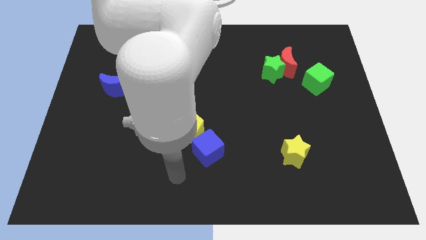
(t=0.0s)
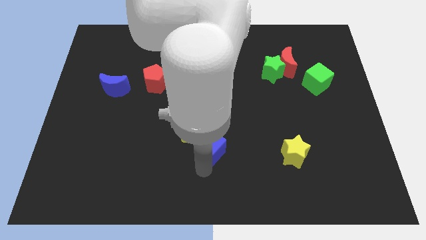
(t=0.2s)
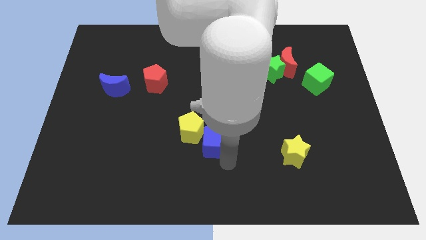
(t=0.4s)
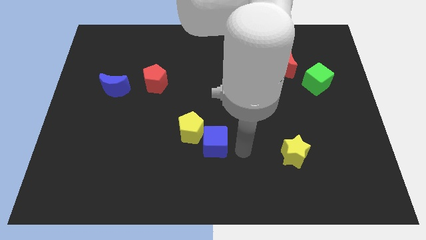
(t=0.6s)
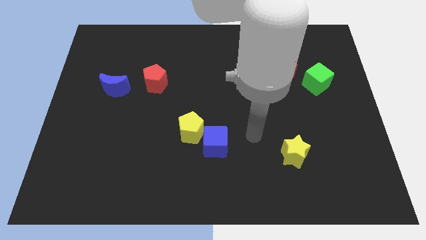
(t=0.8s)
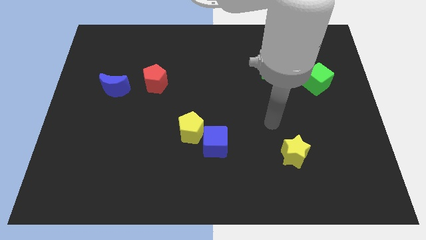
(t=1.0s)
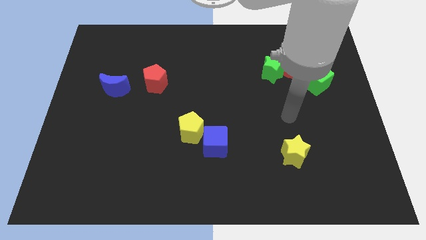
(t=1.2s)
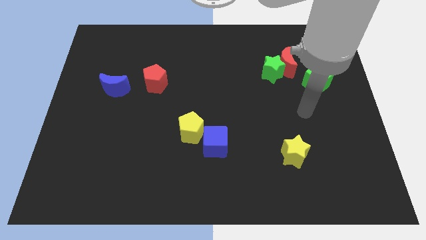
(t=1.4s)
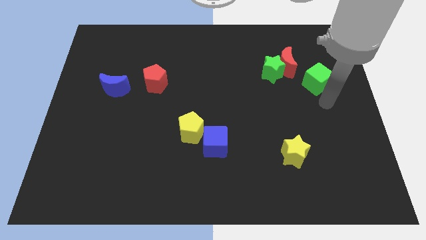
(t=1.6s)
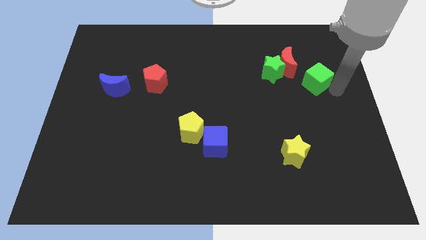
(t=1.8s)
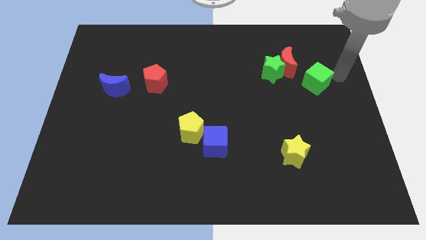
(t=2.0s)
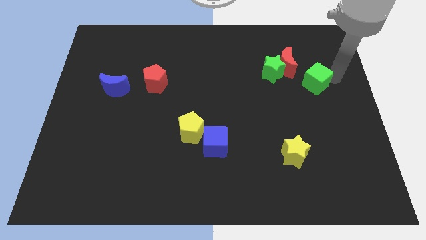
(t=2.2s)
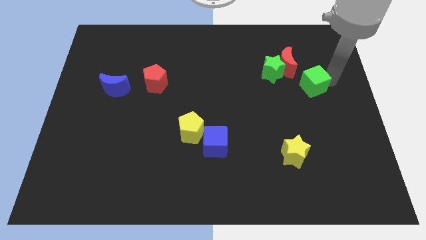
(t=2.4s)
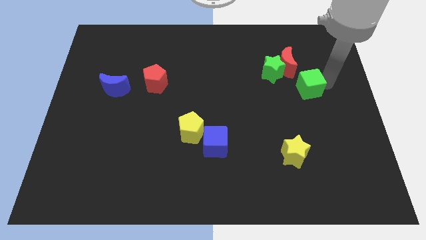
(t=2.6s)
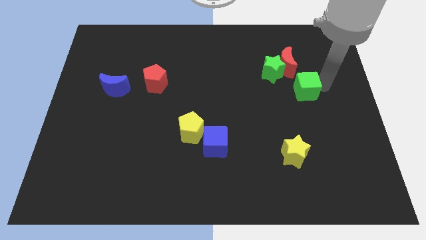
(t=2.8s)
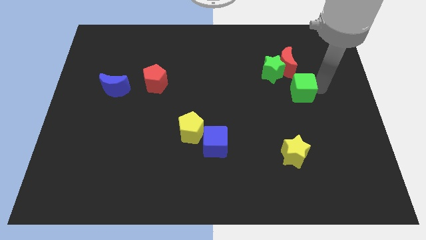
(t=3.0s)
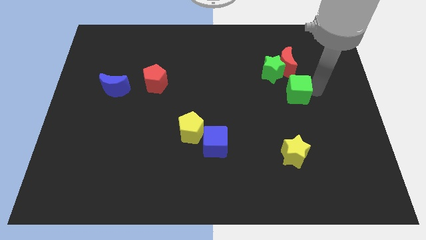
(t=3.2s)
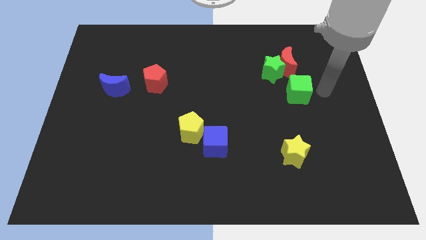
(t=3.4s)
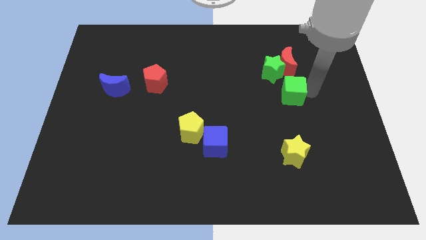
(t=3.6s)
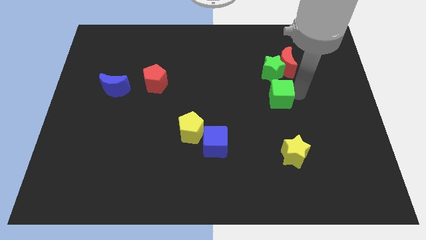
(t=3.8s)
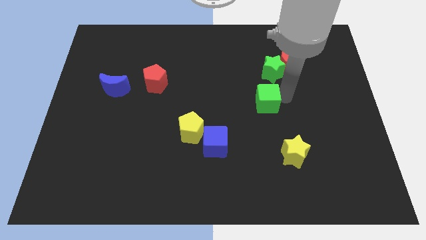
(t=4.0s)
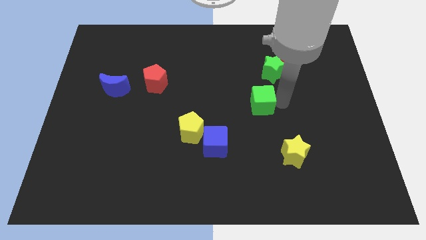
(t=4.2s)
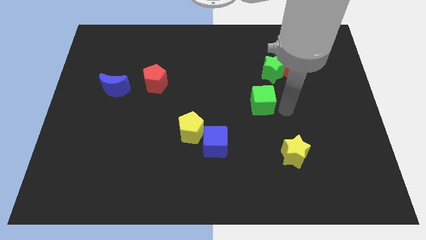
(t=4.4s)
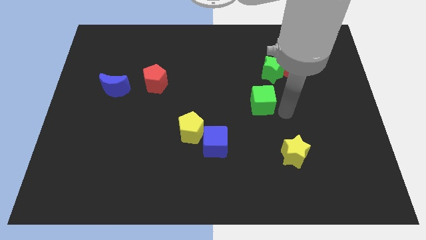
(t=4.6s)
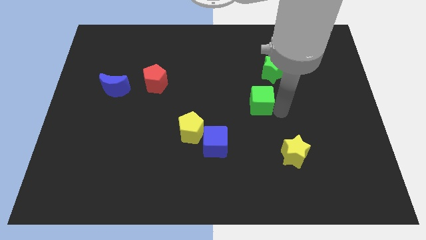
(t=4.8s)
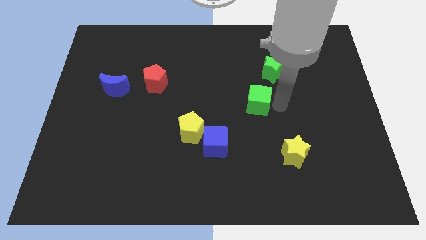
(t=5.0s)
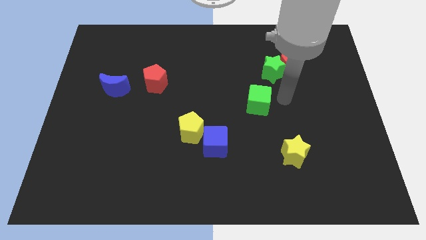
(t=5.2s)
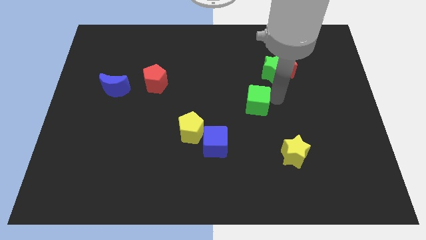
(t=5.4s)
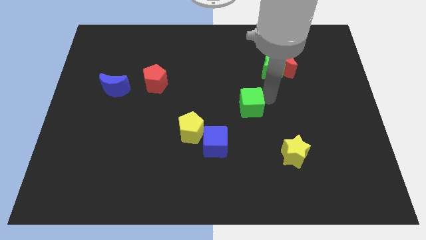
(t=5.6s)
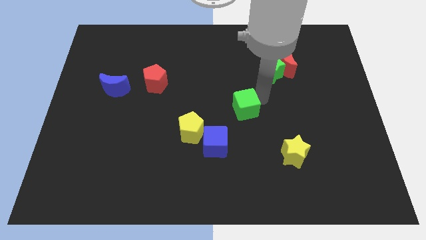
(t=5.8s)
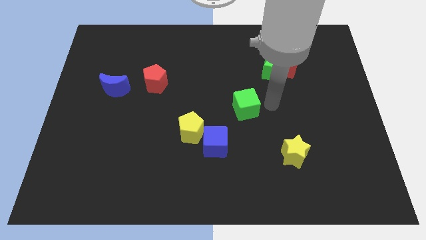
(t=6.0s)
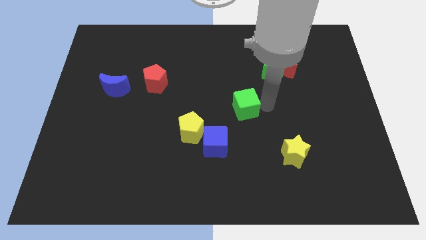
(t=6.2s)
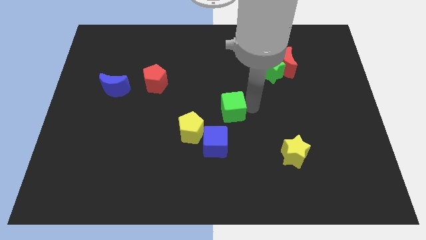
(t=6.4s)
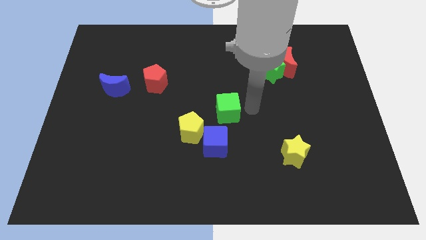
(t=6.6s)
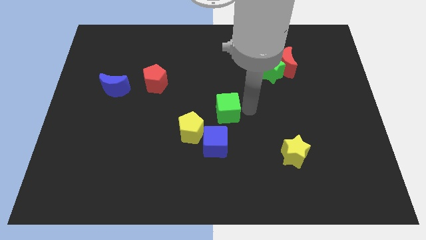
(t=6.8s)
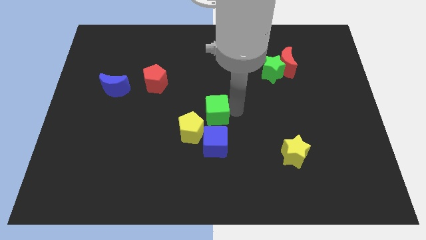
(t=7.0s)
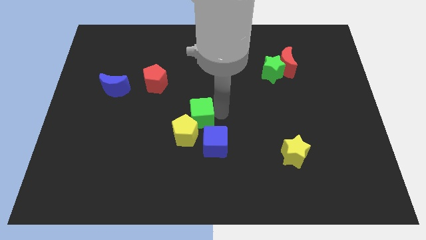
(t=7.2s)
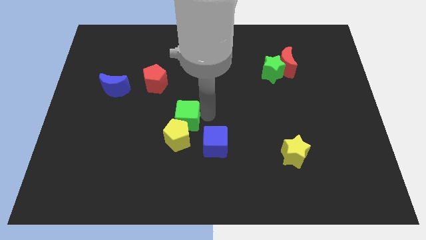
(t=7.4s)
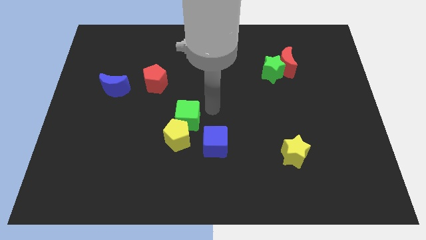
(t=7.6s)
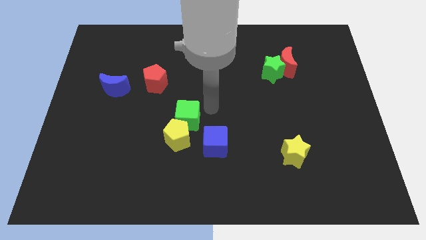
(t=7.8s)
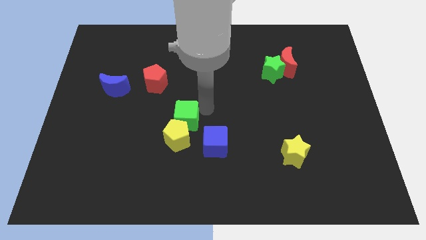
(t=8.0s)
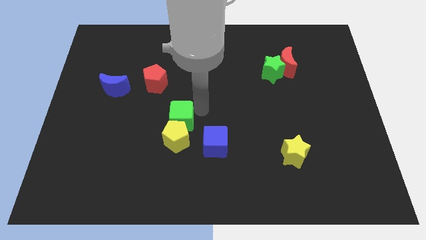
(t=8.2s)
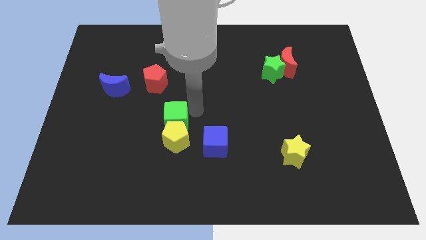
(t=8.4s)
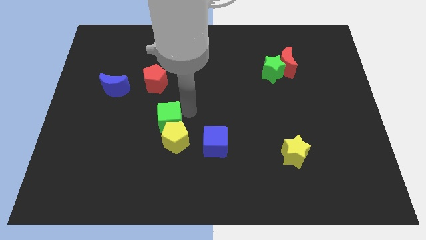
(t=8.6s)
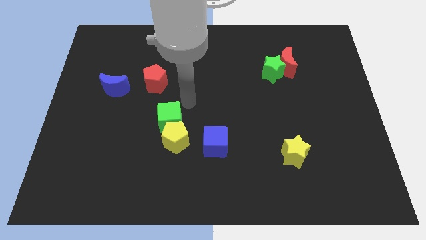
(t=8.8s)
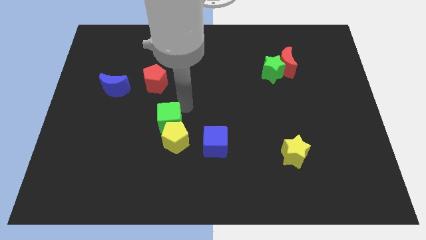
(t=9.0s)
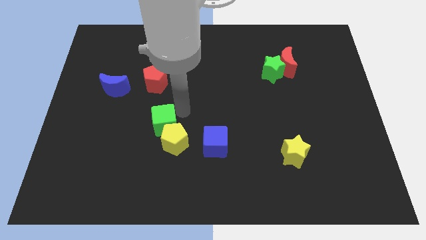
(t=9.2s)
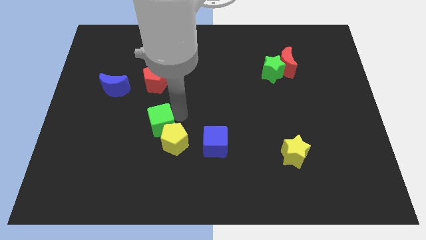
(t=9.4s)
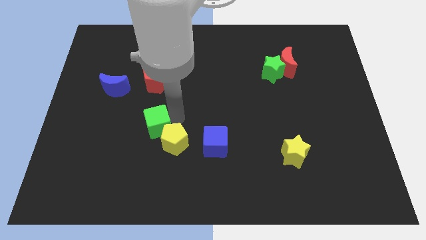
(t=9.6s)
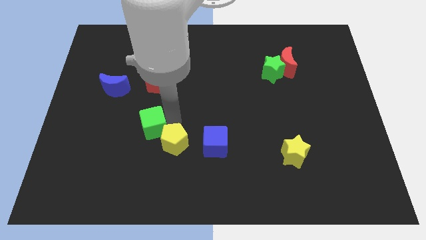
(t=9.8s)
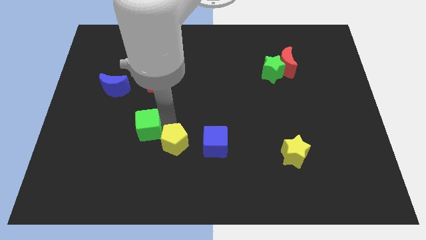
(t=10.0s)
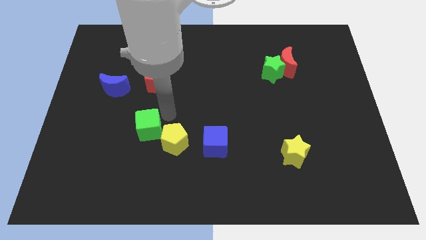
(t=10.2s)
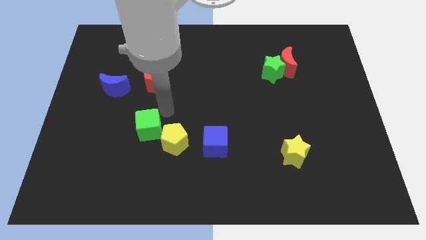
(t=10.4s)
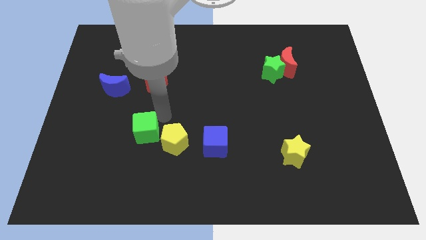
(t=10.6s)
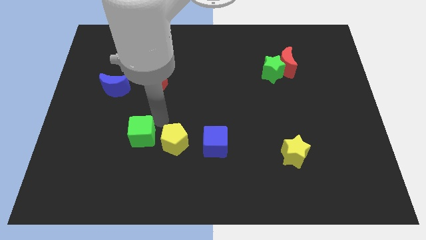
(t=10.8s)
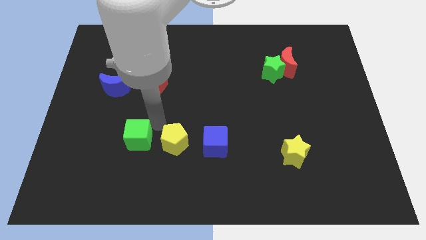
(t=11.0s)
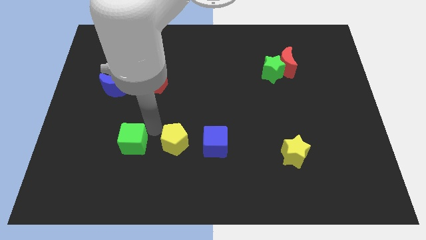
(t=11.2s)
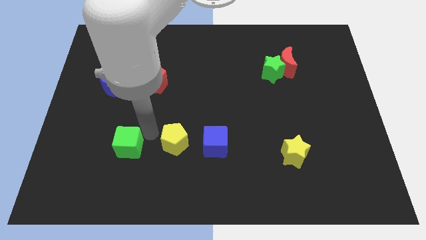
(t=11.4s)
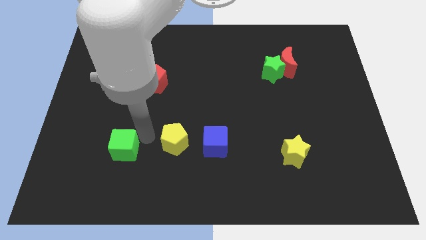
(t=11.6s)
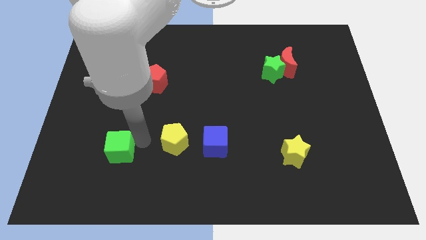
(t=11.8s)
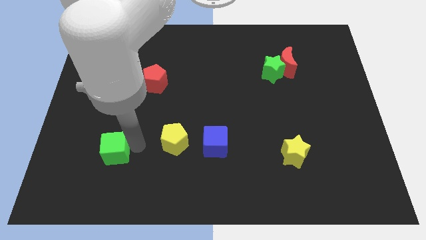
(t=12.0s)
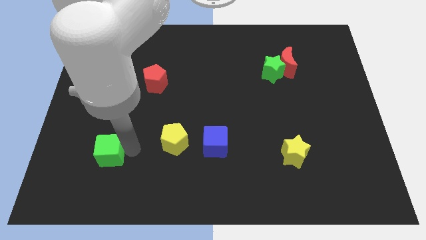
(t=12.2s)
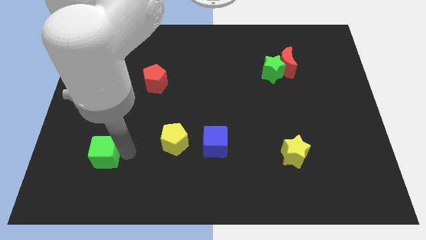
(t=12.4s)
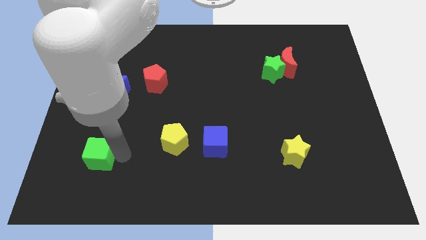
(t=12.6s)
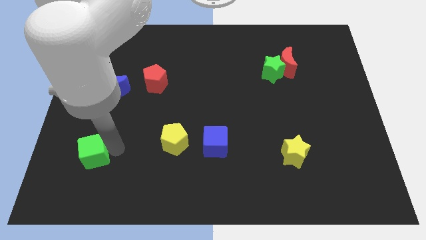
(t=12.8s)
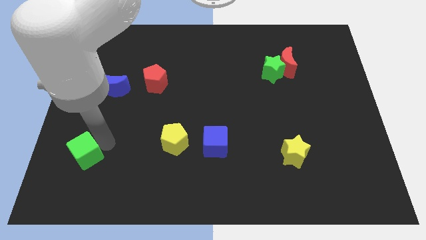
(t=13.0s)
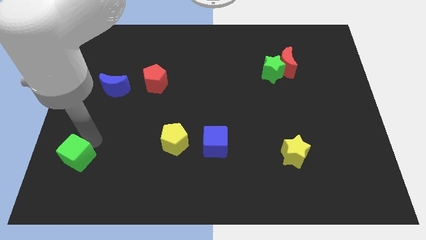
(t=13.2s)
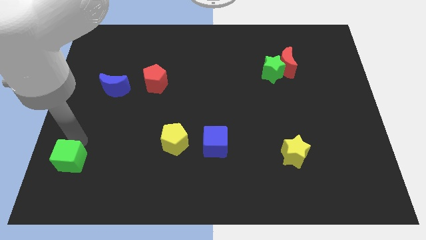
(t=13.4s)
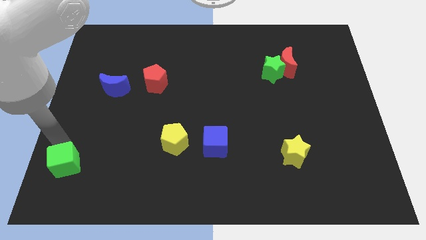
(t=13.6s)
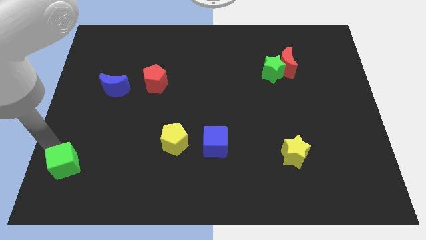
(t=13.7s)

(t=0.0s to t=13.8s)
put the green cube to the bottom left corner
